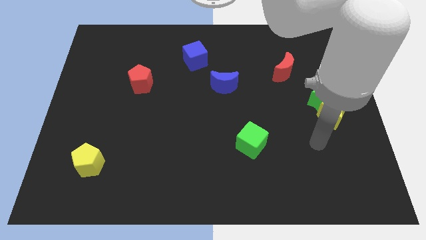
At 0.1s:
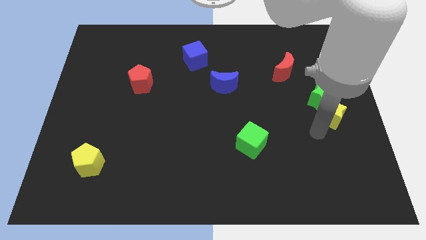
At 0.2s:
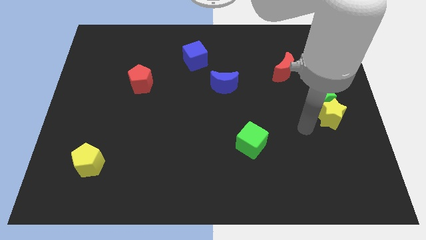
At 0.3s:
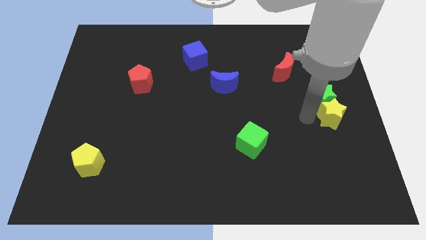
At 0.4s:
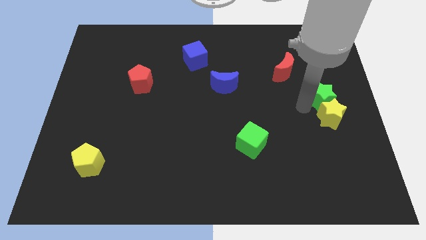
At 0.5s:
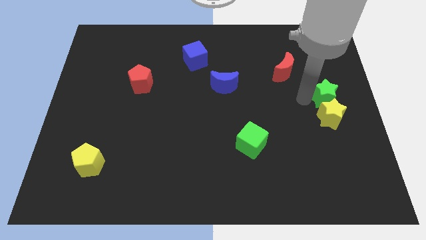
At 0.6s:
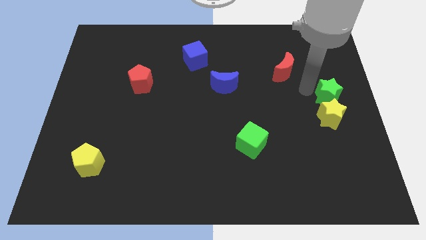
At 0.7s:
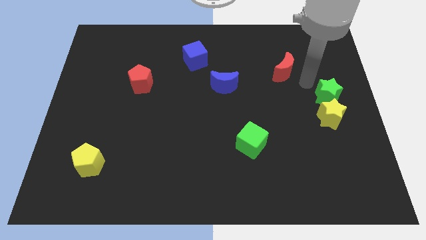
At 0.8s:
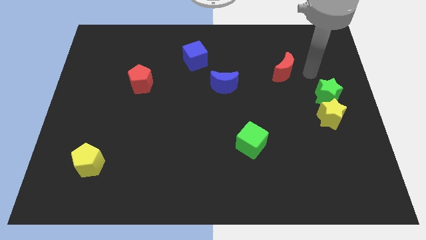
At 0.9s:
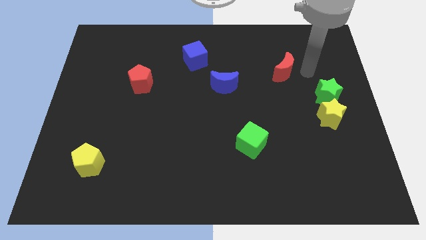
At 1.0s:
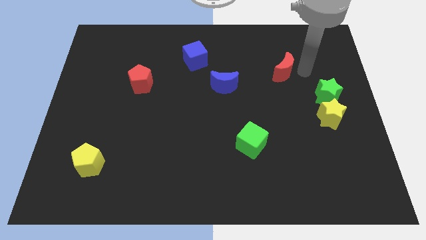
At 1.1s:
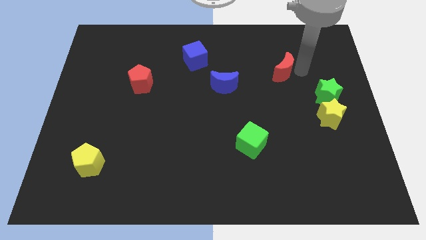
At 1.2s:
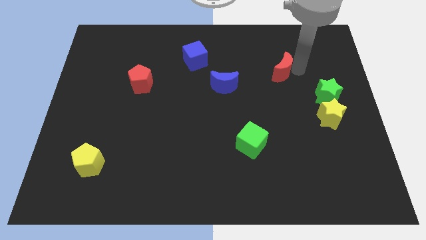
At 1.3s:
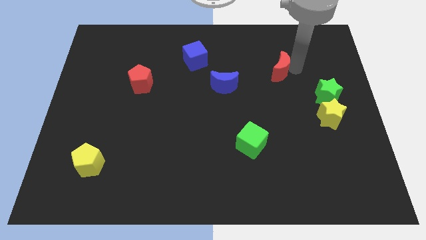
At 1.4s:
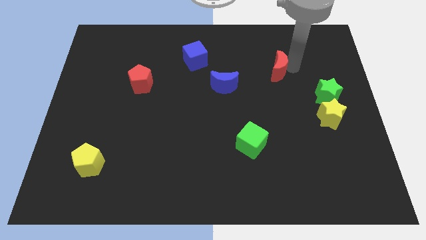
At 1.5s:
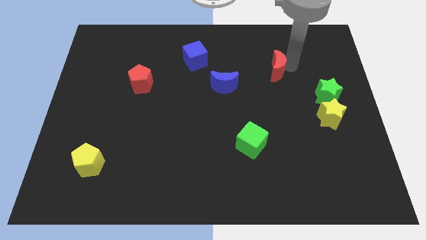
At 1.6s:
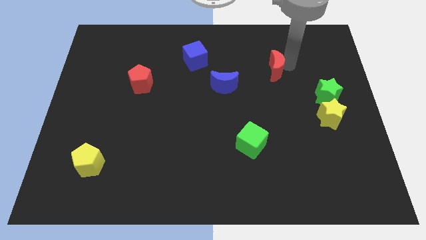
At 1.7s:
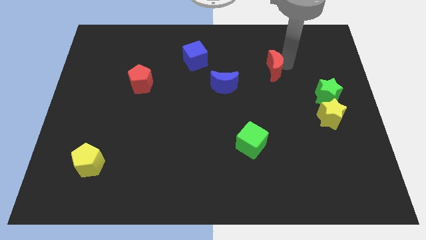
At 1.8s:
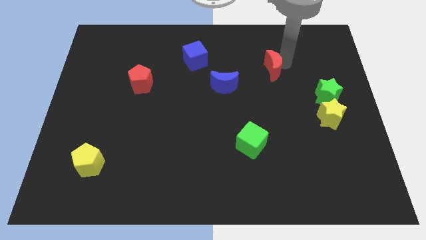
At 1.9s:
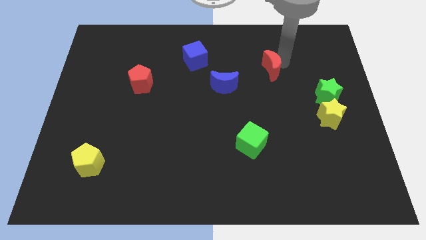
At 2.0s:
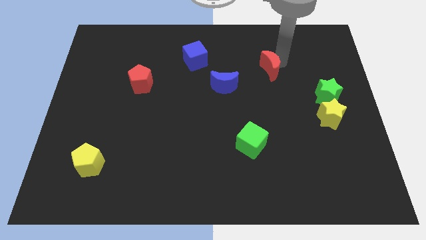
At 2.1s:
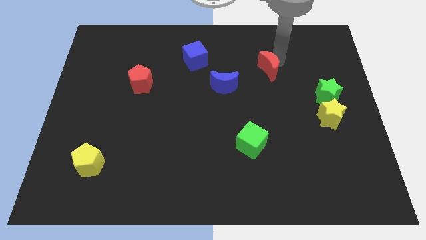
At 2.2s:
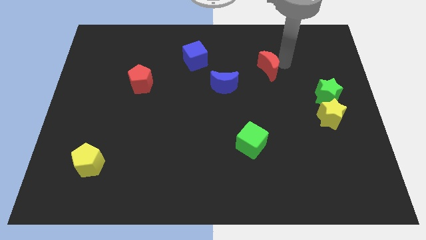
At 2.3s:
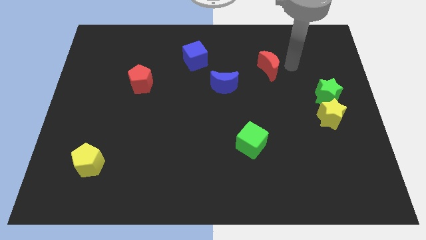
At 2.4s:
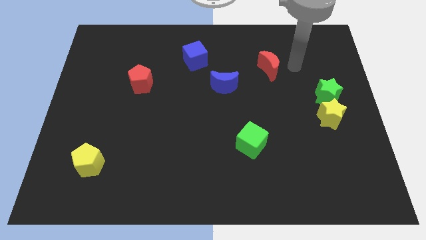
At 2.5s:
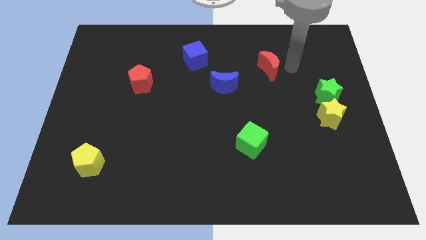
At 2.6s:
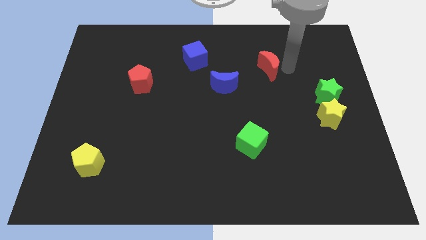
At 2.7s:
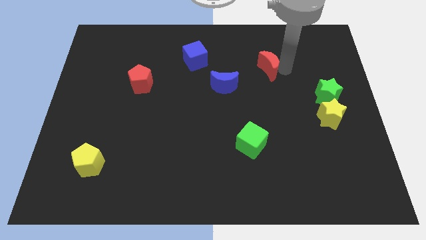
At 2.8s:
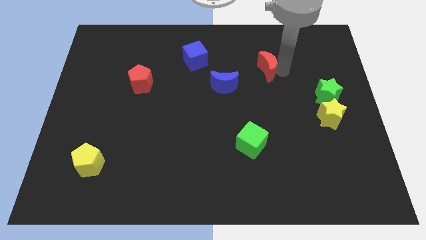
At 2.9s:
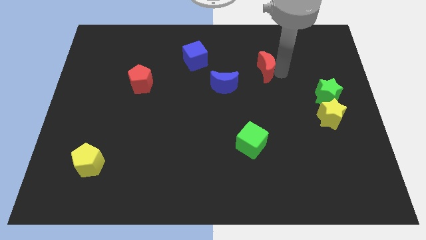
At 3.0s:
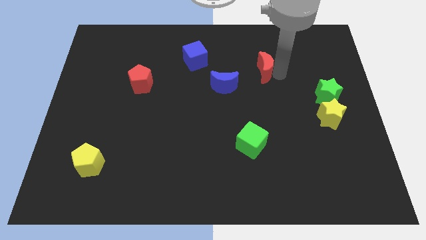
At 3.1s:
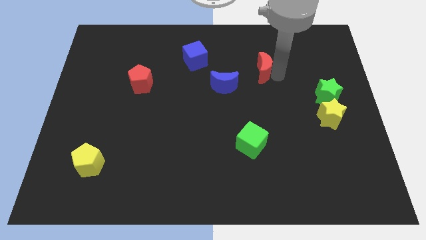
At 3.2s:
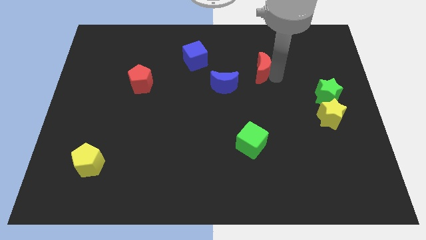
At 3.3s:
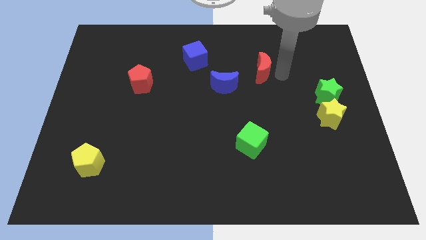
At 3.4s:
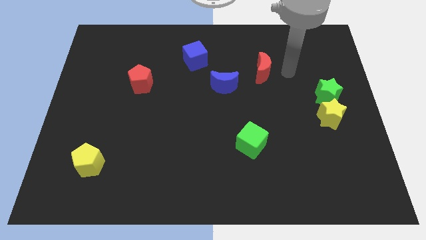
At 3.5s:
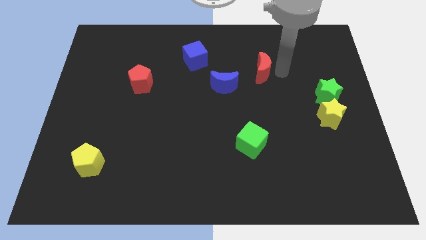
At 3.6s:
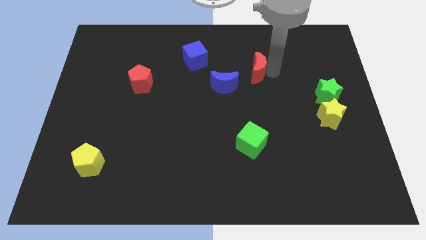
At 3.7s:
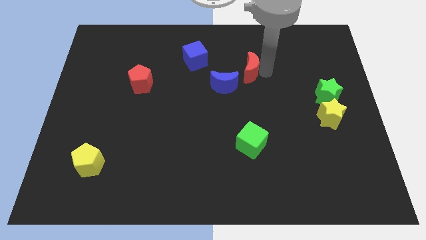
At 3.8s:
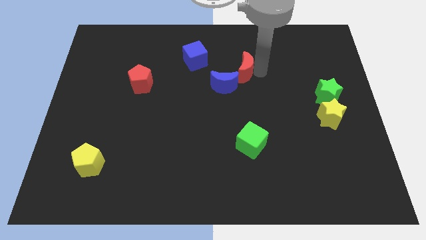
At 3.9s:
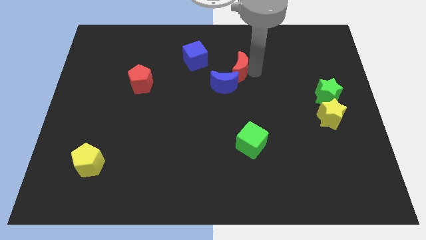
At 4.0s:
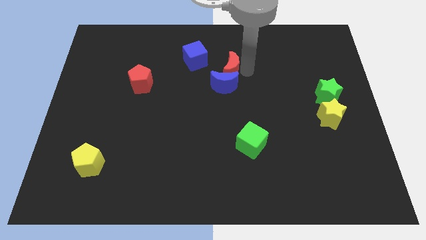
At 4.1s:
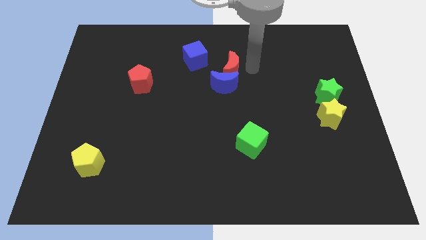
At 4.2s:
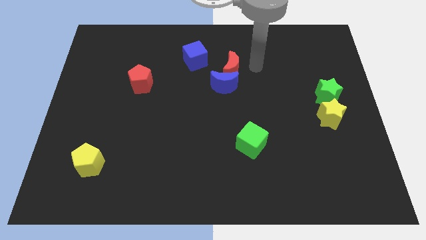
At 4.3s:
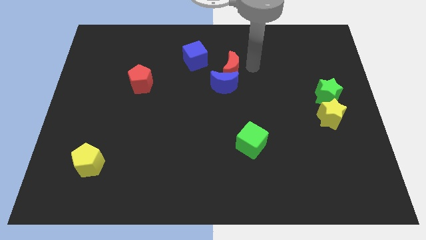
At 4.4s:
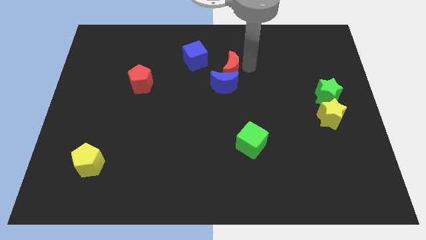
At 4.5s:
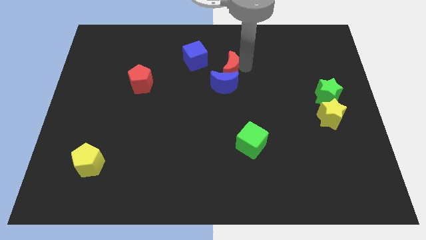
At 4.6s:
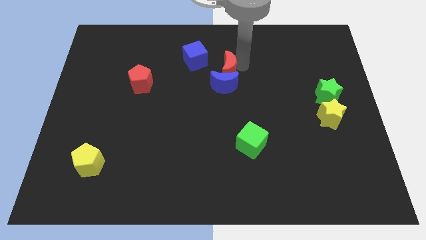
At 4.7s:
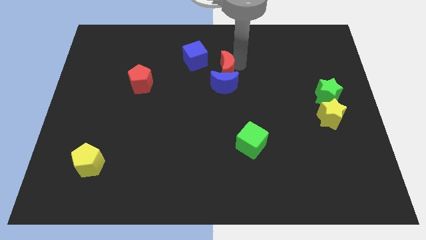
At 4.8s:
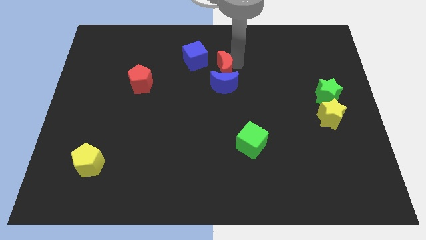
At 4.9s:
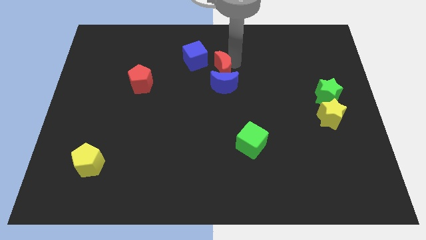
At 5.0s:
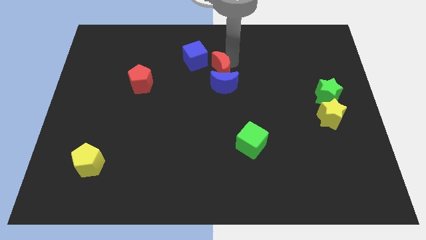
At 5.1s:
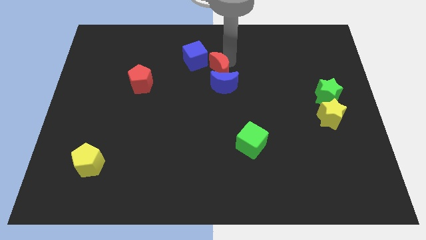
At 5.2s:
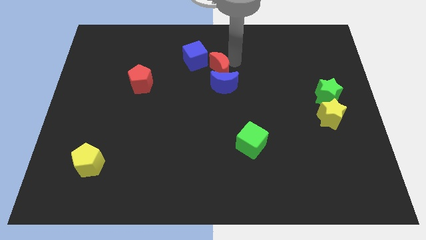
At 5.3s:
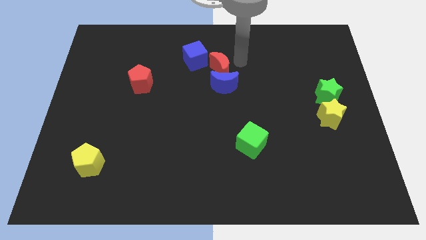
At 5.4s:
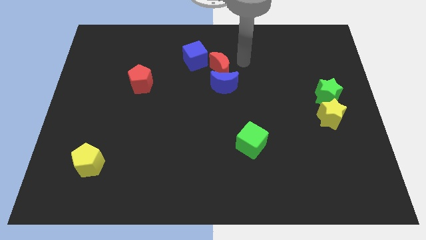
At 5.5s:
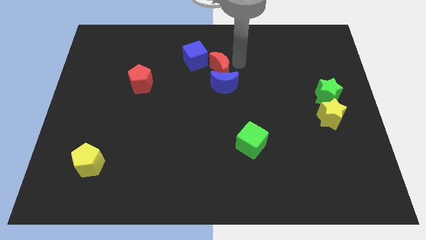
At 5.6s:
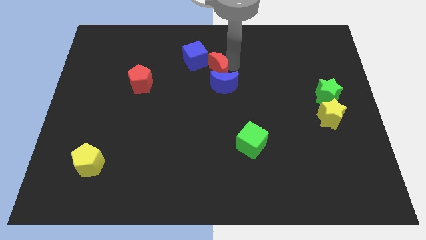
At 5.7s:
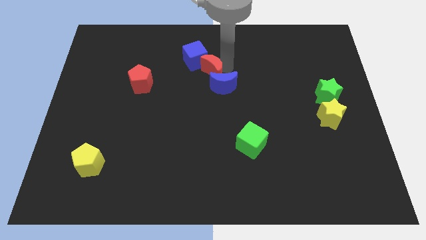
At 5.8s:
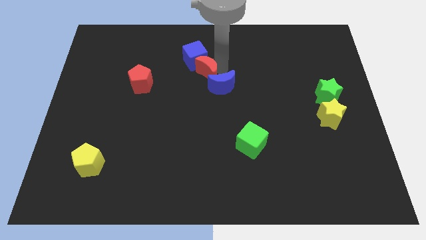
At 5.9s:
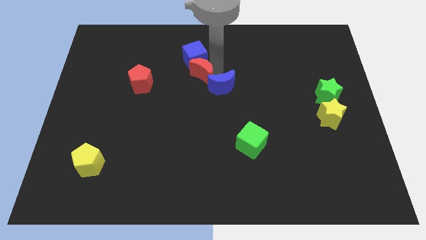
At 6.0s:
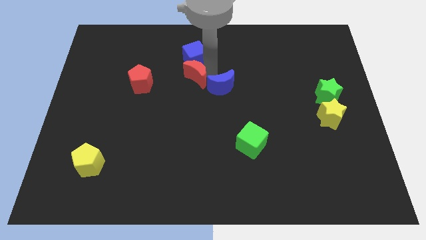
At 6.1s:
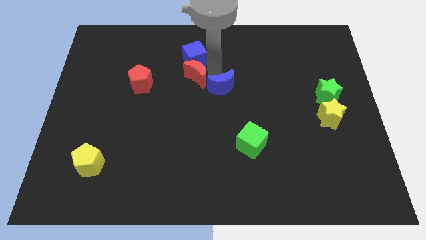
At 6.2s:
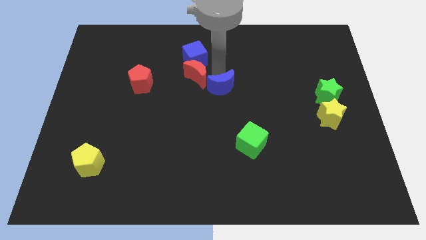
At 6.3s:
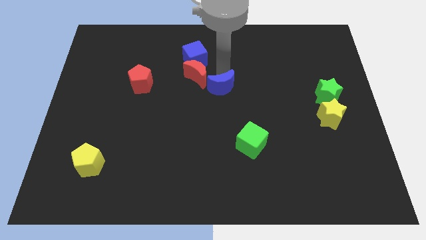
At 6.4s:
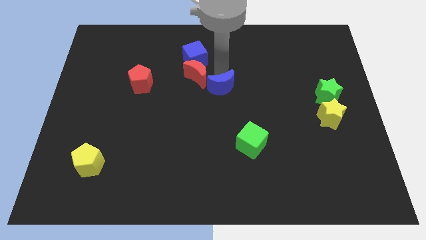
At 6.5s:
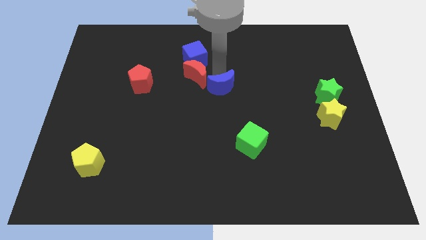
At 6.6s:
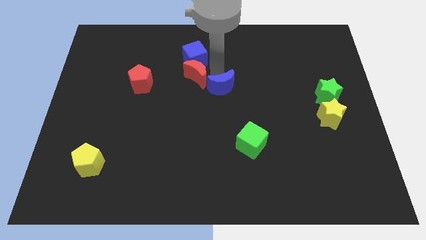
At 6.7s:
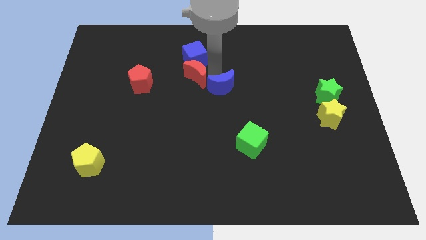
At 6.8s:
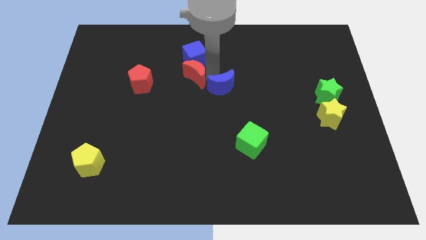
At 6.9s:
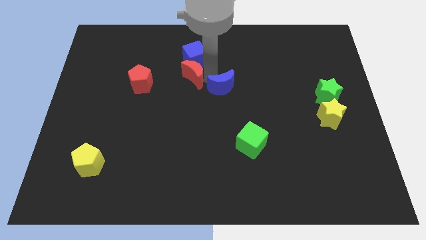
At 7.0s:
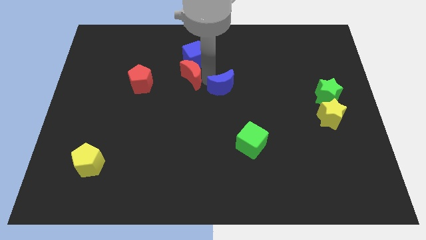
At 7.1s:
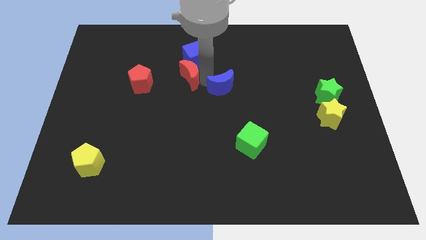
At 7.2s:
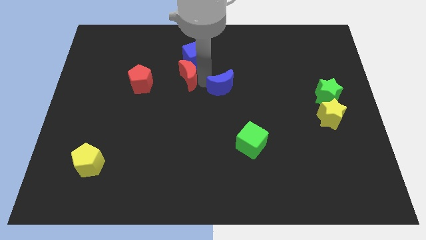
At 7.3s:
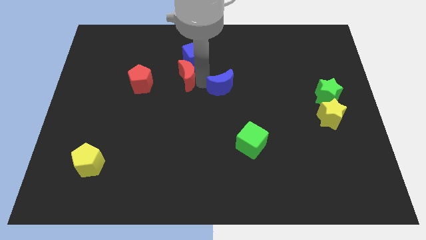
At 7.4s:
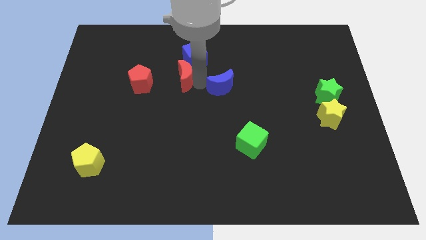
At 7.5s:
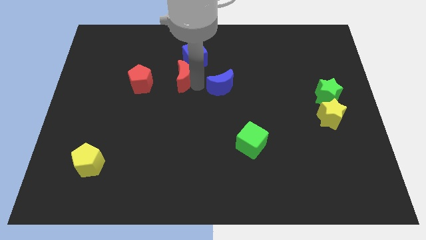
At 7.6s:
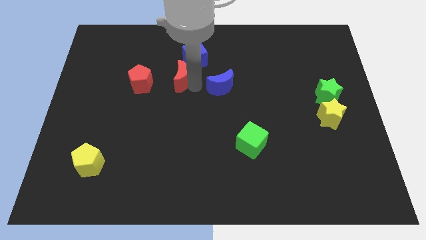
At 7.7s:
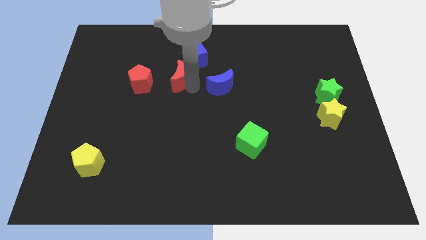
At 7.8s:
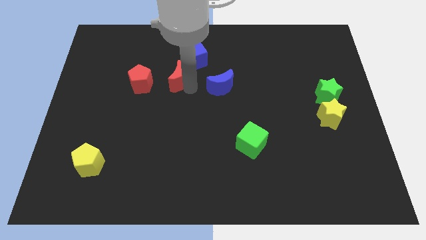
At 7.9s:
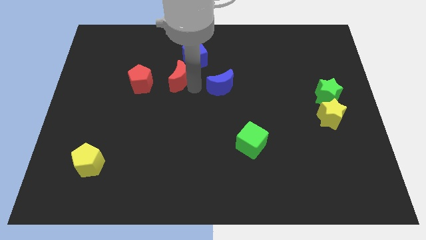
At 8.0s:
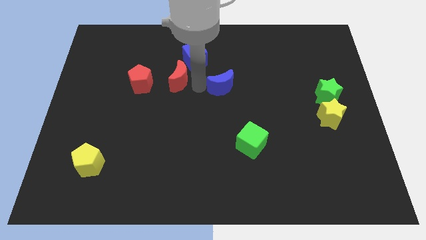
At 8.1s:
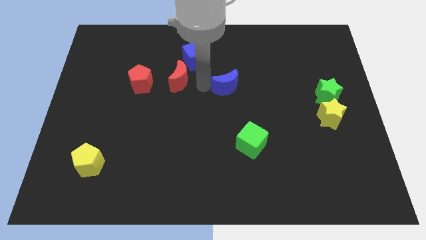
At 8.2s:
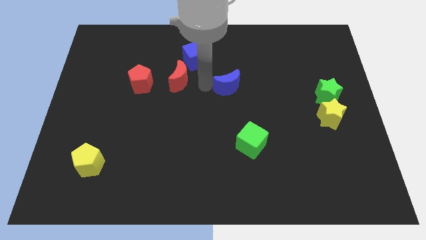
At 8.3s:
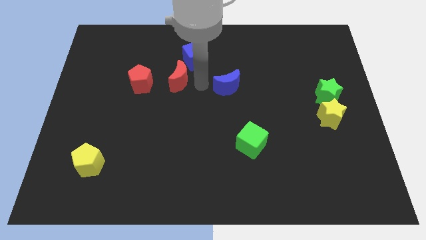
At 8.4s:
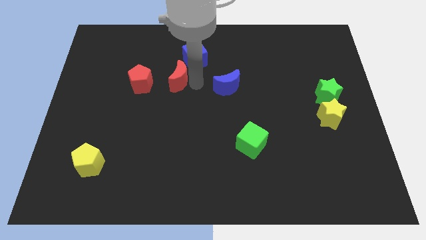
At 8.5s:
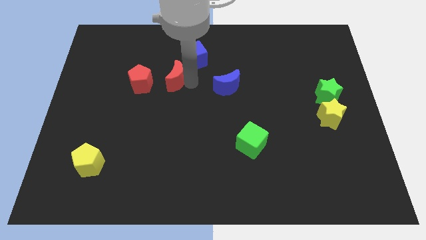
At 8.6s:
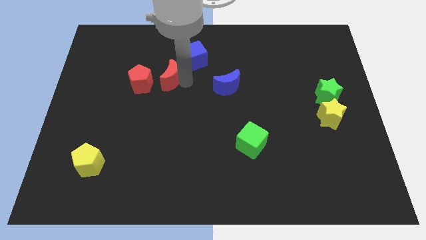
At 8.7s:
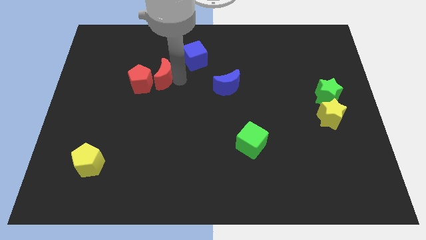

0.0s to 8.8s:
move the red moon towards the red pentagon
